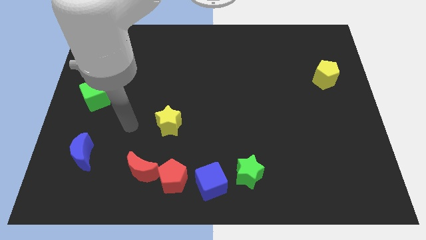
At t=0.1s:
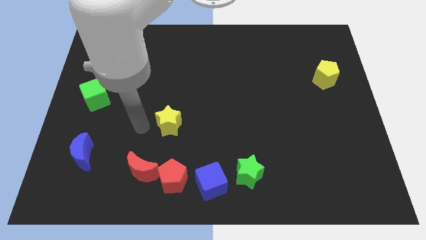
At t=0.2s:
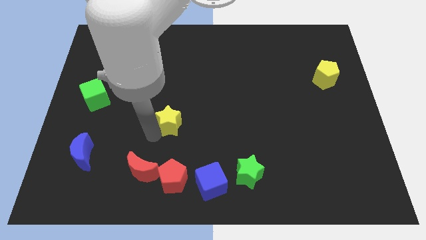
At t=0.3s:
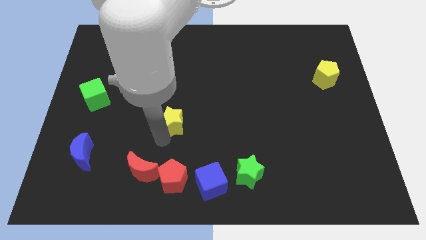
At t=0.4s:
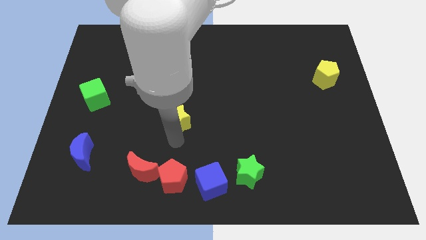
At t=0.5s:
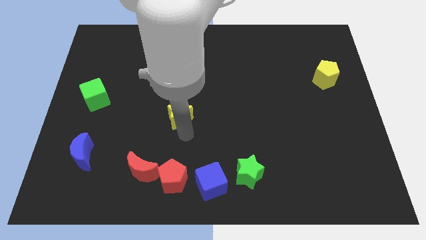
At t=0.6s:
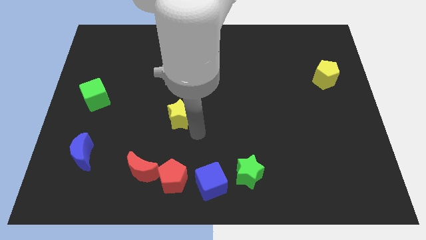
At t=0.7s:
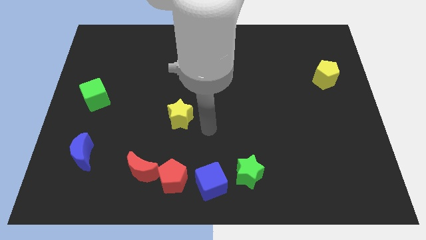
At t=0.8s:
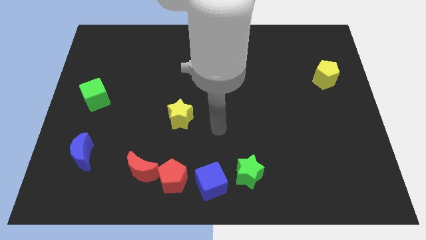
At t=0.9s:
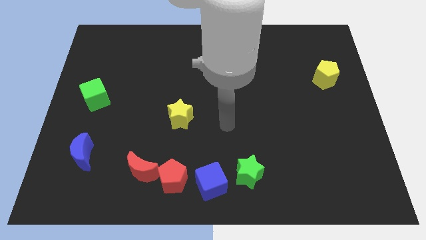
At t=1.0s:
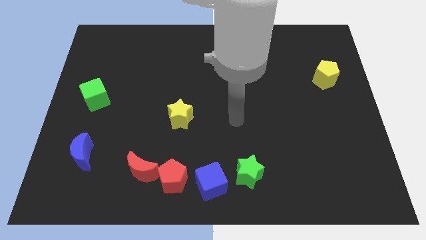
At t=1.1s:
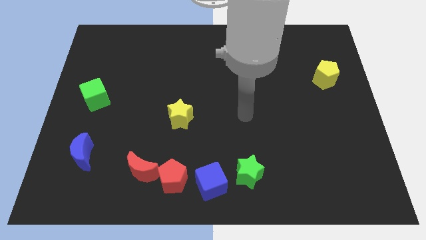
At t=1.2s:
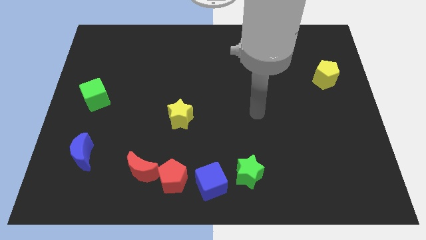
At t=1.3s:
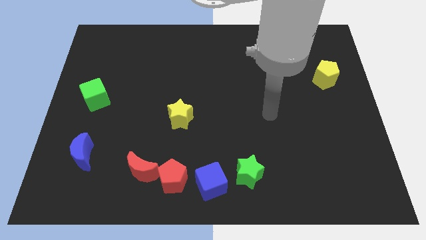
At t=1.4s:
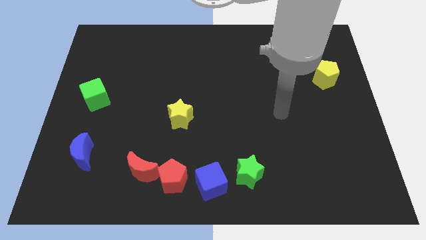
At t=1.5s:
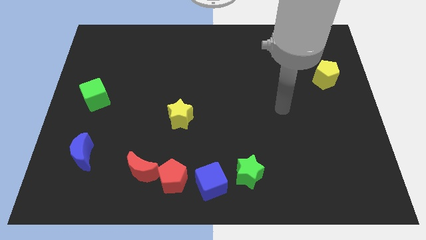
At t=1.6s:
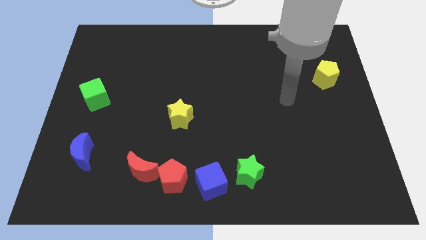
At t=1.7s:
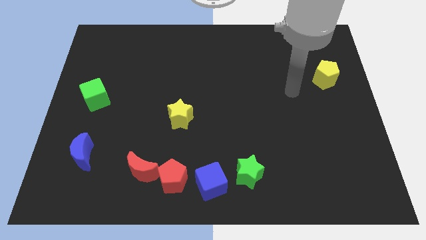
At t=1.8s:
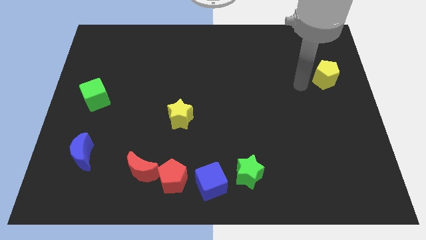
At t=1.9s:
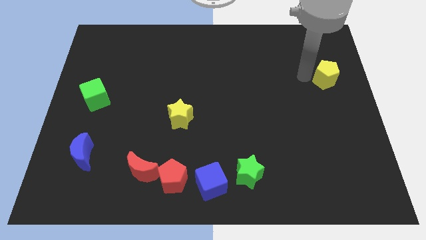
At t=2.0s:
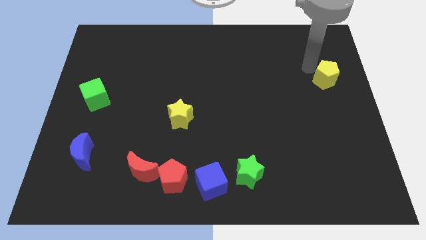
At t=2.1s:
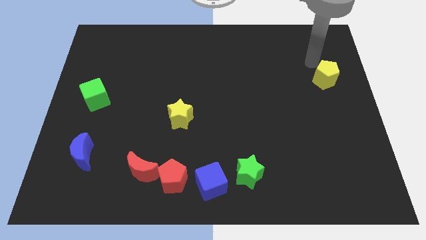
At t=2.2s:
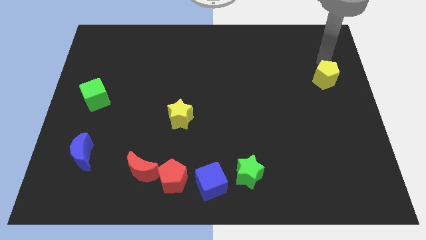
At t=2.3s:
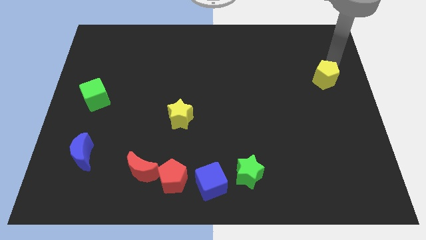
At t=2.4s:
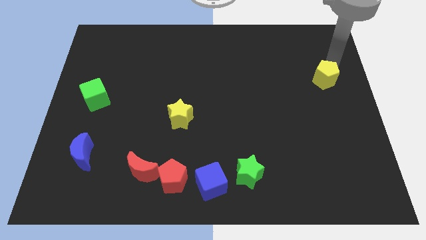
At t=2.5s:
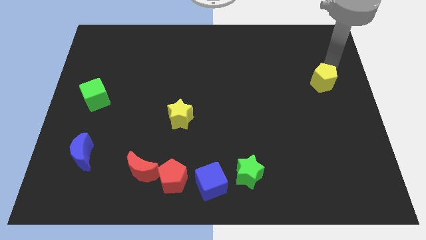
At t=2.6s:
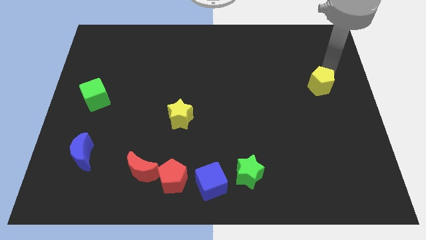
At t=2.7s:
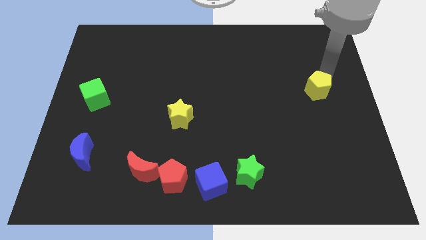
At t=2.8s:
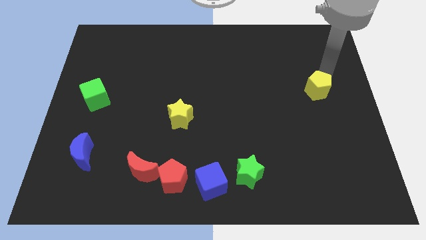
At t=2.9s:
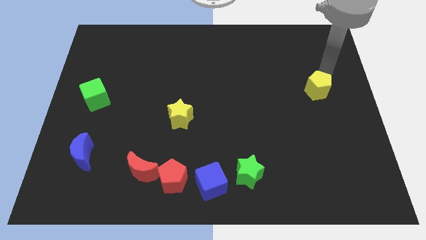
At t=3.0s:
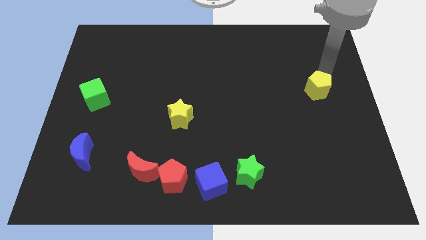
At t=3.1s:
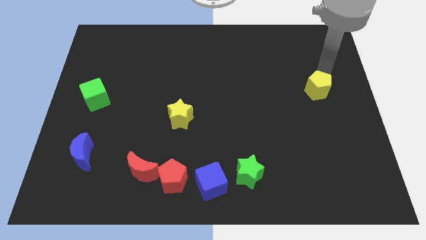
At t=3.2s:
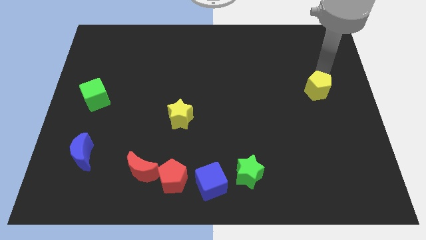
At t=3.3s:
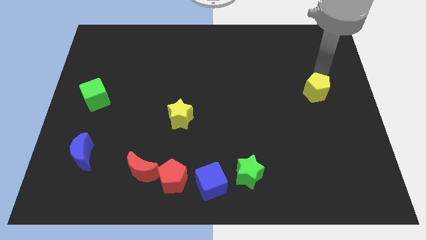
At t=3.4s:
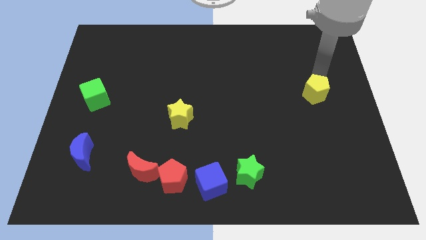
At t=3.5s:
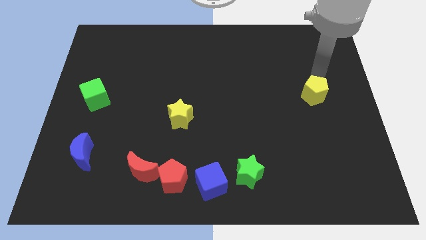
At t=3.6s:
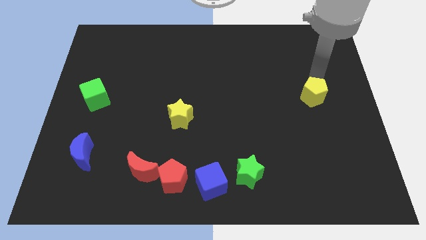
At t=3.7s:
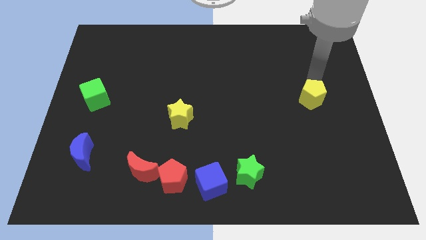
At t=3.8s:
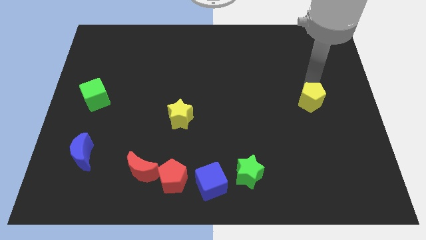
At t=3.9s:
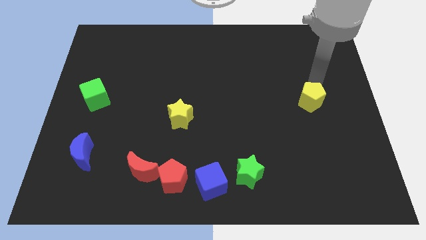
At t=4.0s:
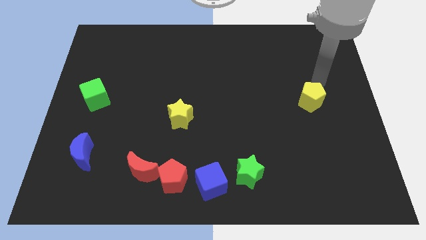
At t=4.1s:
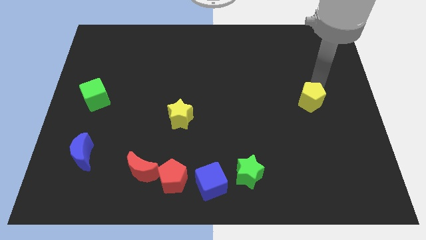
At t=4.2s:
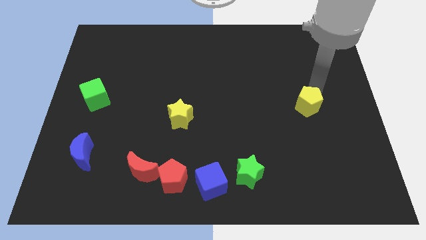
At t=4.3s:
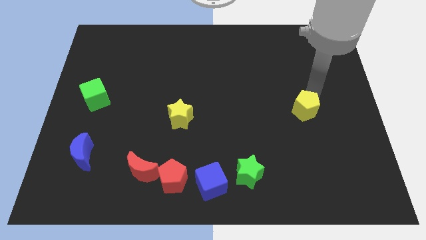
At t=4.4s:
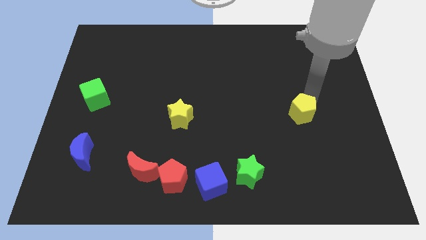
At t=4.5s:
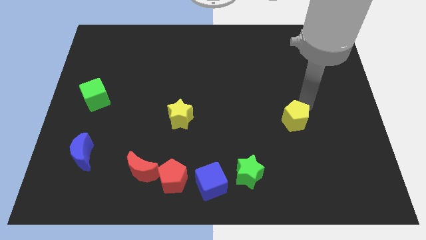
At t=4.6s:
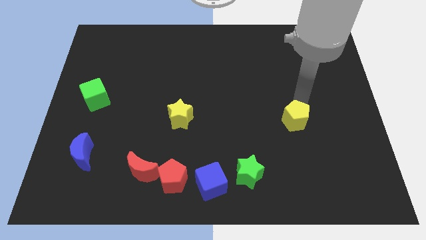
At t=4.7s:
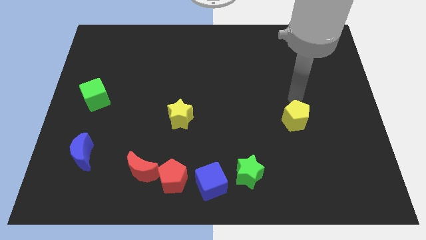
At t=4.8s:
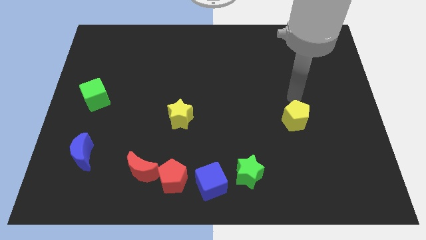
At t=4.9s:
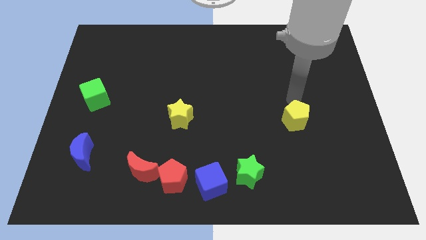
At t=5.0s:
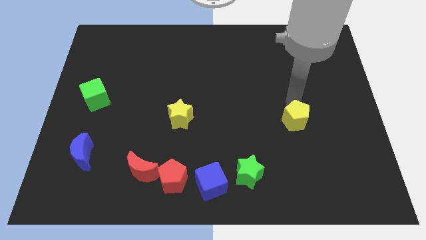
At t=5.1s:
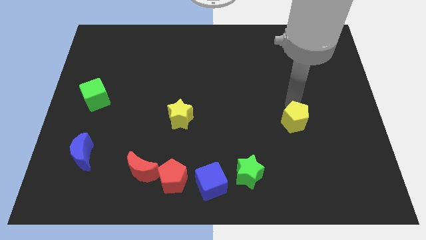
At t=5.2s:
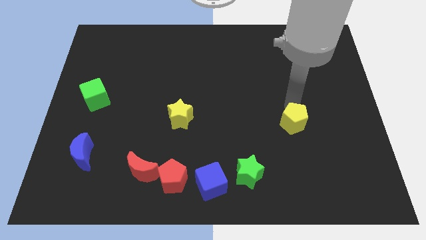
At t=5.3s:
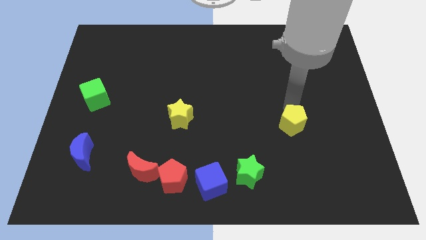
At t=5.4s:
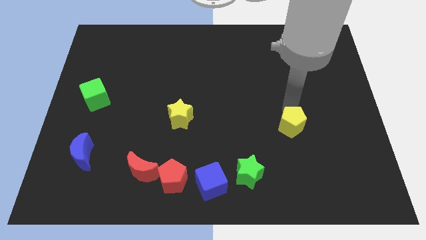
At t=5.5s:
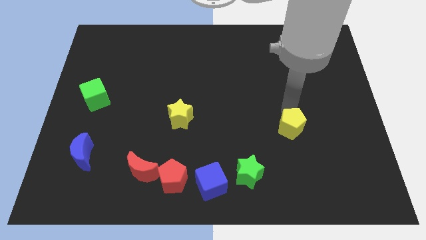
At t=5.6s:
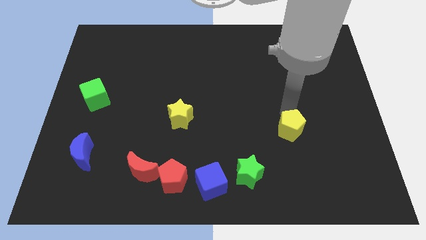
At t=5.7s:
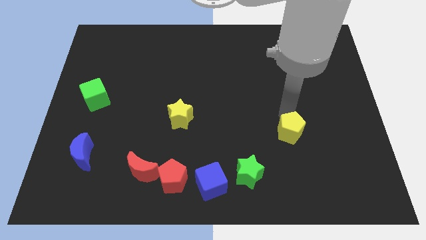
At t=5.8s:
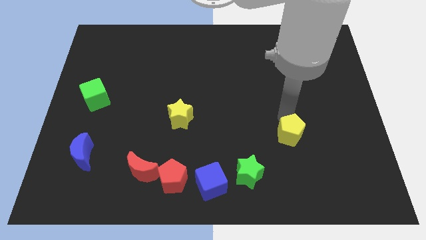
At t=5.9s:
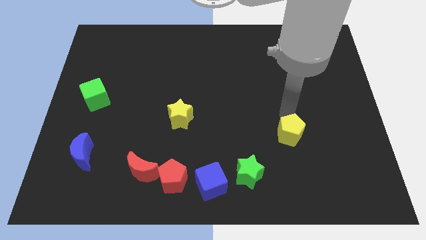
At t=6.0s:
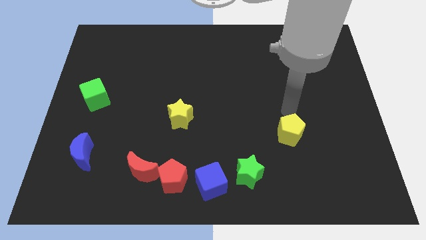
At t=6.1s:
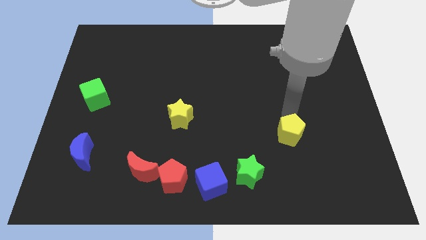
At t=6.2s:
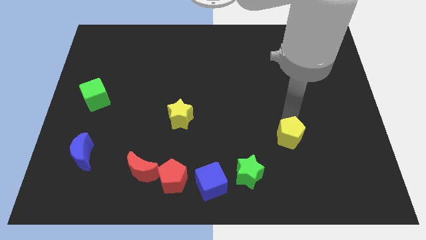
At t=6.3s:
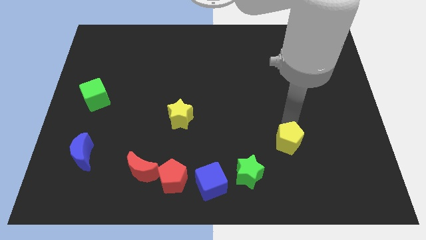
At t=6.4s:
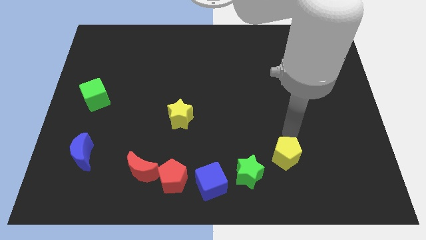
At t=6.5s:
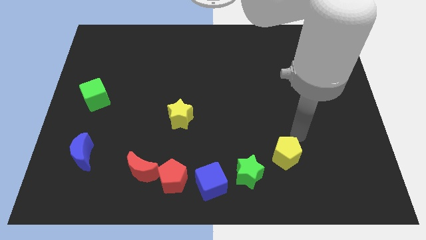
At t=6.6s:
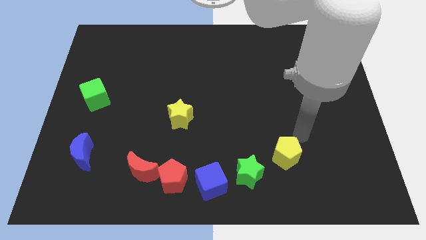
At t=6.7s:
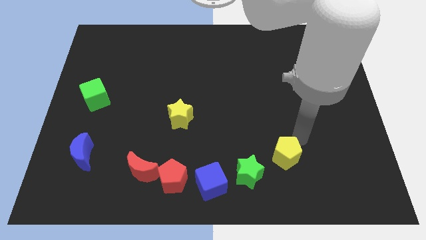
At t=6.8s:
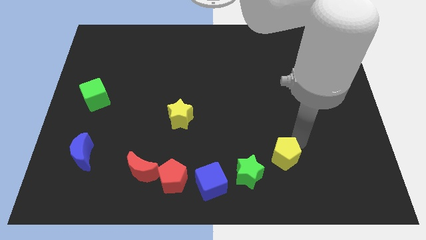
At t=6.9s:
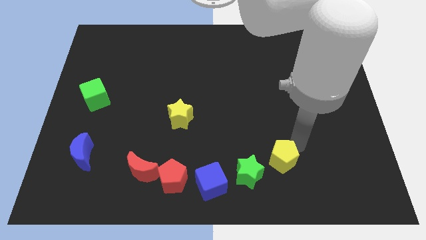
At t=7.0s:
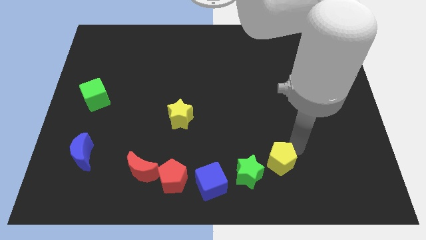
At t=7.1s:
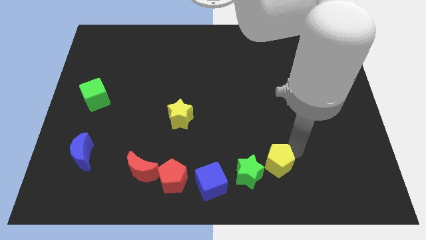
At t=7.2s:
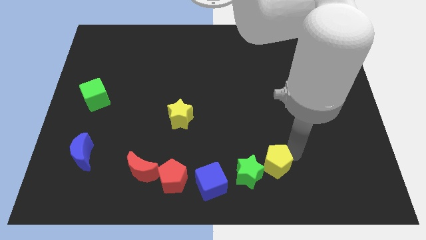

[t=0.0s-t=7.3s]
slide the yellow pentagon to the right of the blue cube
